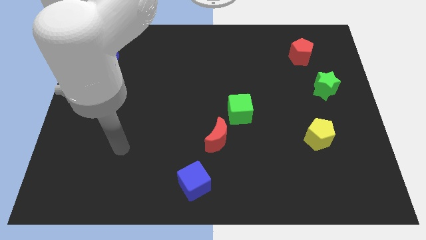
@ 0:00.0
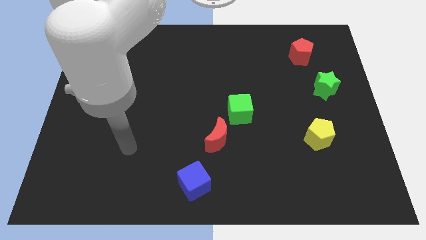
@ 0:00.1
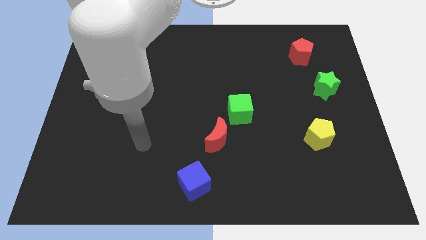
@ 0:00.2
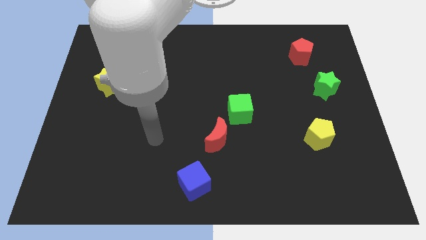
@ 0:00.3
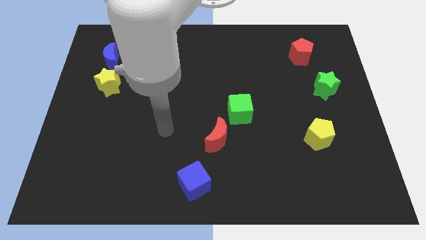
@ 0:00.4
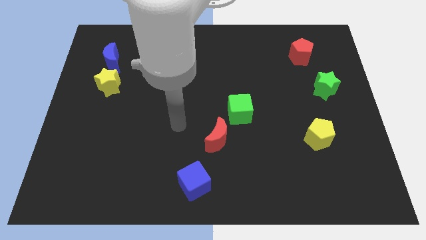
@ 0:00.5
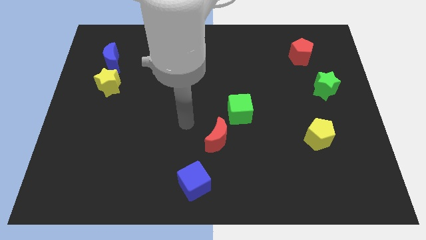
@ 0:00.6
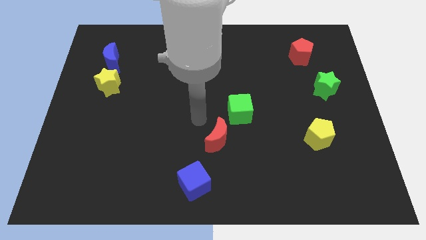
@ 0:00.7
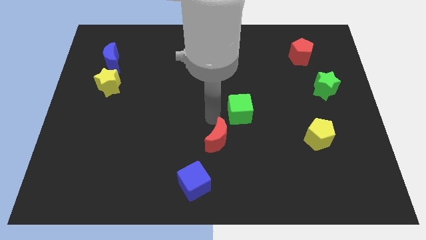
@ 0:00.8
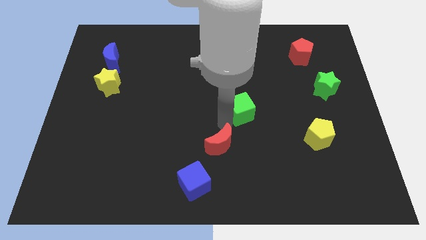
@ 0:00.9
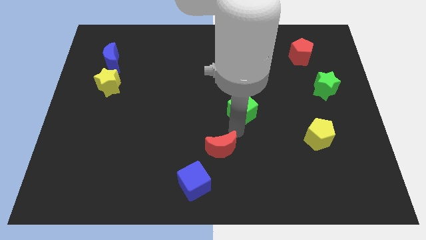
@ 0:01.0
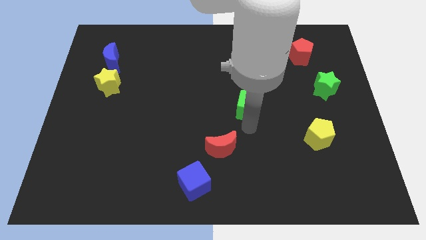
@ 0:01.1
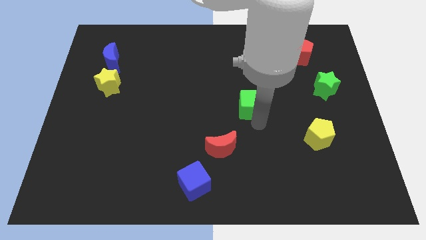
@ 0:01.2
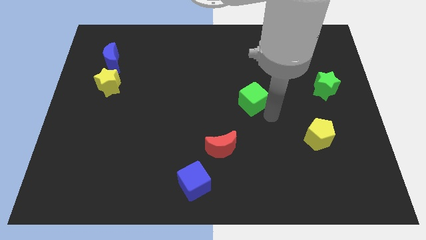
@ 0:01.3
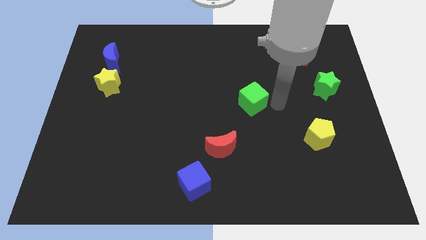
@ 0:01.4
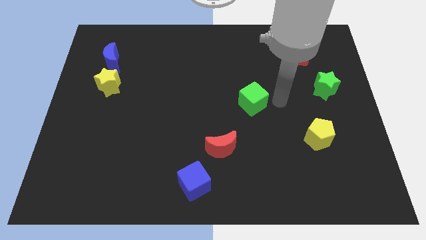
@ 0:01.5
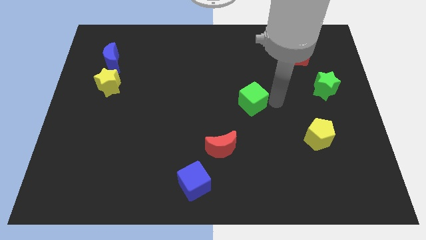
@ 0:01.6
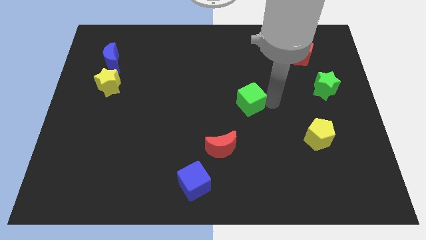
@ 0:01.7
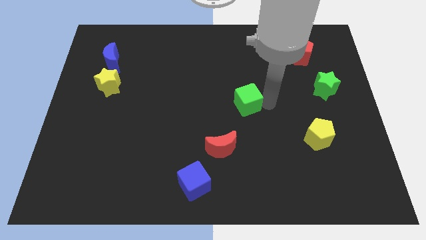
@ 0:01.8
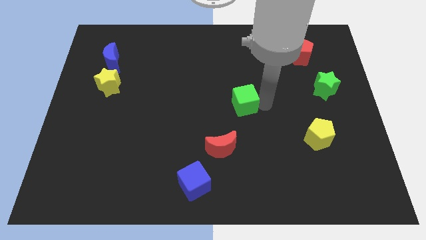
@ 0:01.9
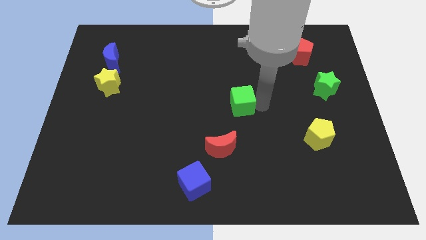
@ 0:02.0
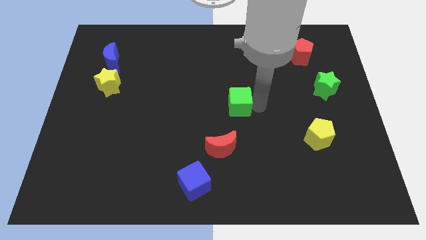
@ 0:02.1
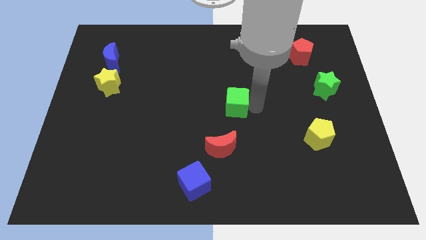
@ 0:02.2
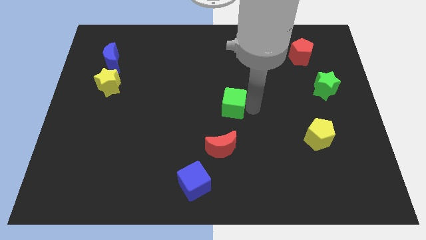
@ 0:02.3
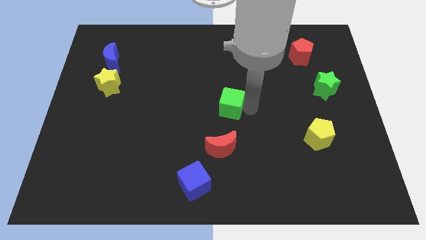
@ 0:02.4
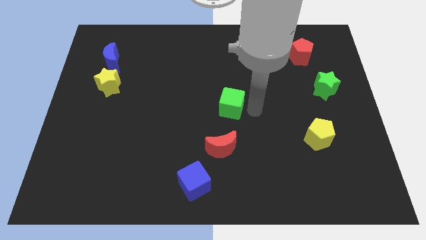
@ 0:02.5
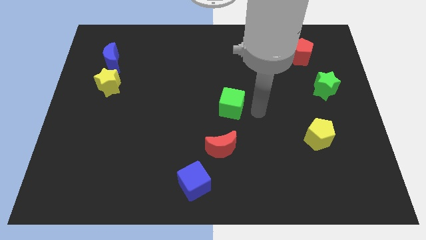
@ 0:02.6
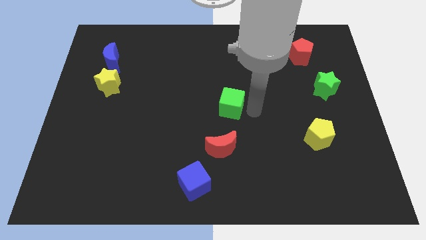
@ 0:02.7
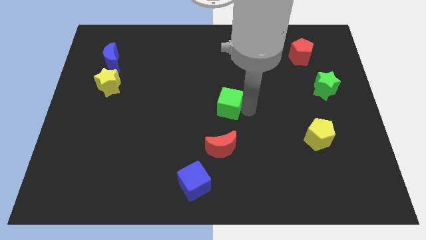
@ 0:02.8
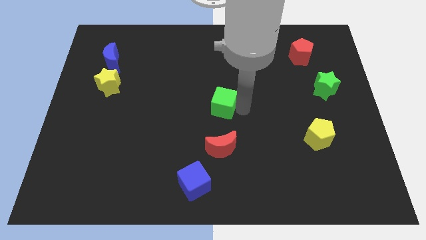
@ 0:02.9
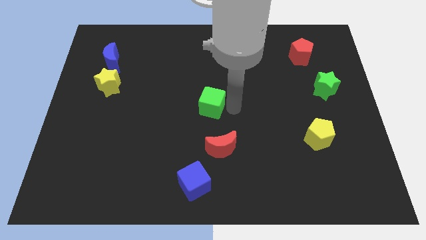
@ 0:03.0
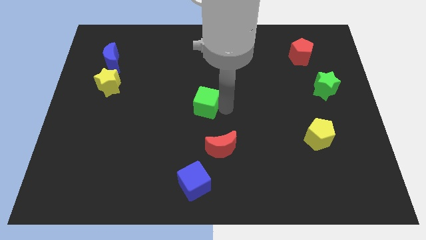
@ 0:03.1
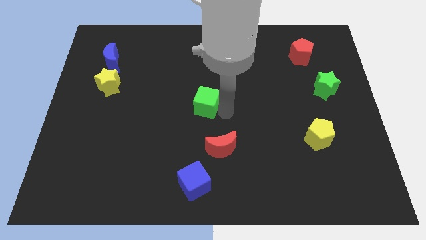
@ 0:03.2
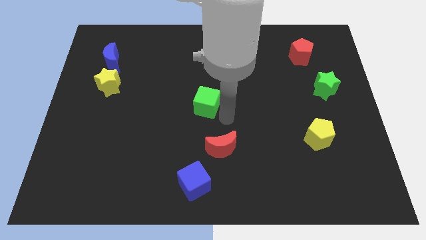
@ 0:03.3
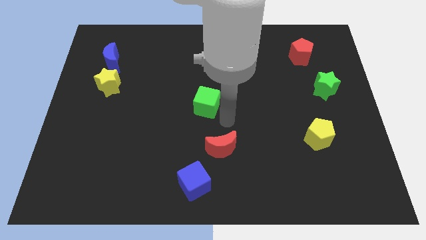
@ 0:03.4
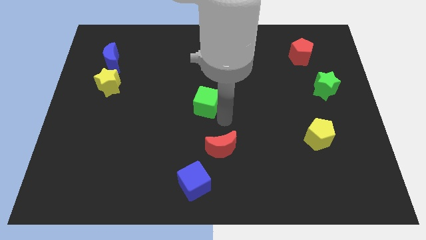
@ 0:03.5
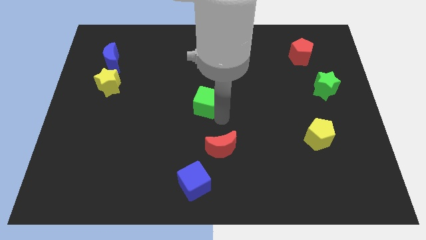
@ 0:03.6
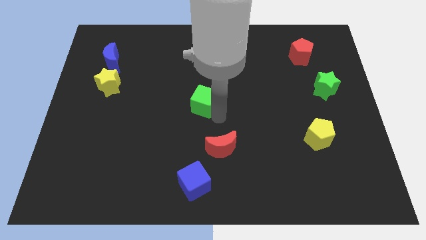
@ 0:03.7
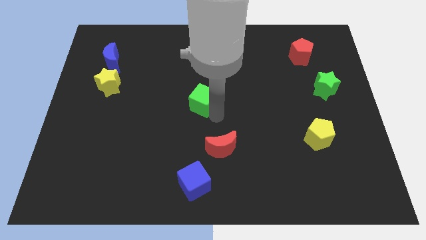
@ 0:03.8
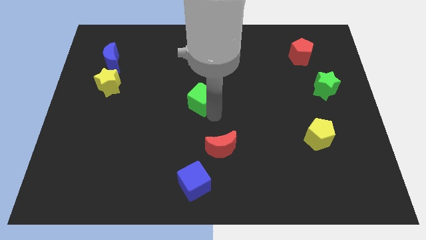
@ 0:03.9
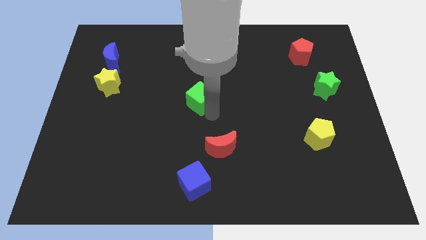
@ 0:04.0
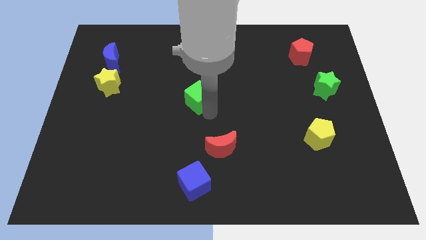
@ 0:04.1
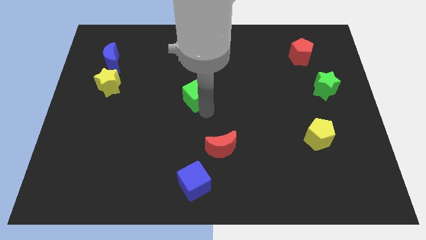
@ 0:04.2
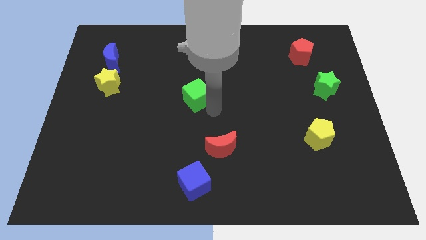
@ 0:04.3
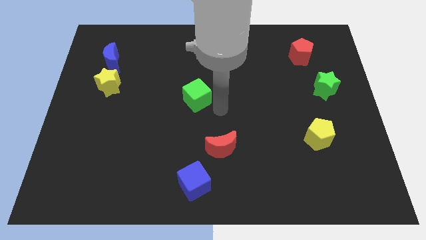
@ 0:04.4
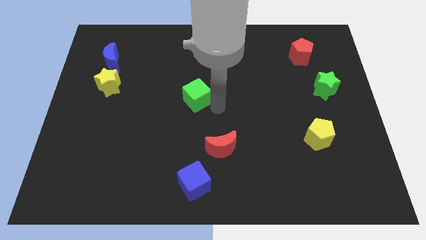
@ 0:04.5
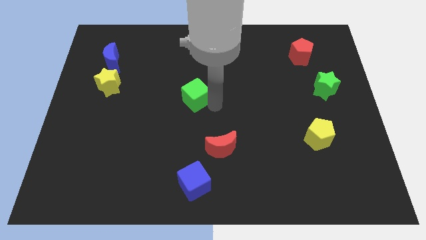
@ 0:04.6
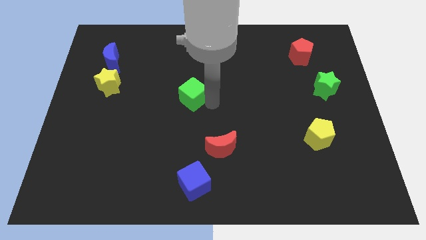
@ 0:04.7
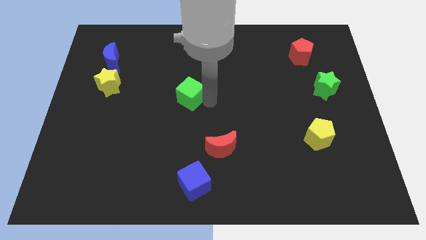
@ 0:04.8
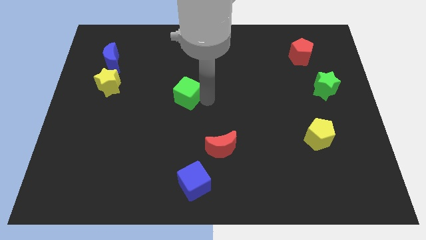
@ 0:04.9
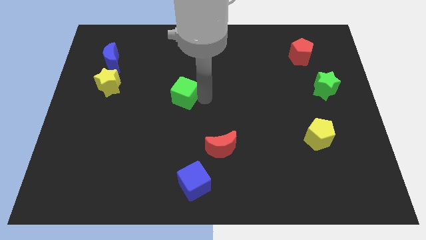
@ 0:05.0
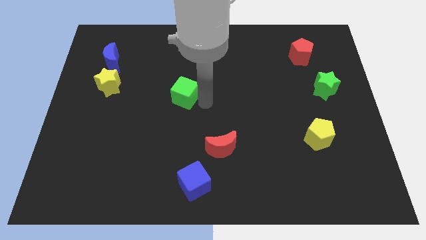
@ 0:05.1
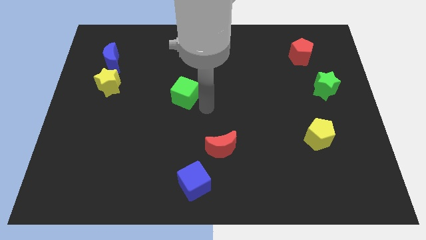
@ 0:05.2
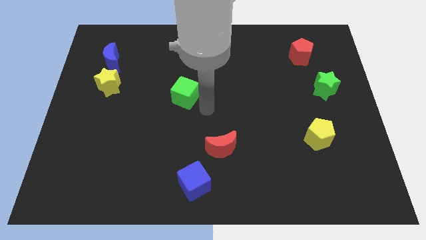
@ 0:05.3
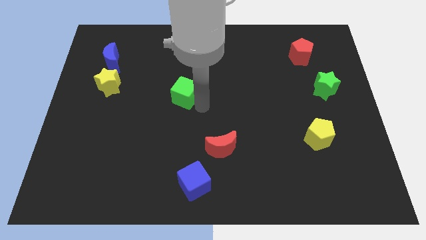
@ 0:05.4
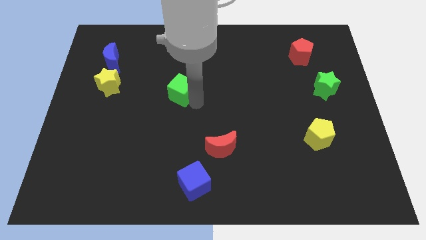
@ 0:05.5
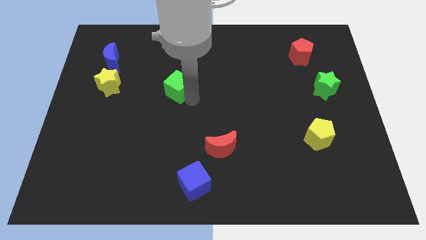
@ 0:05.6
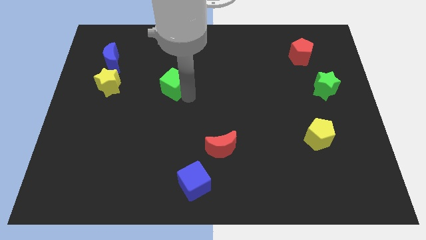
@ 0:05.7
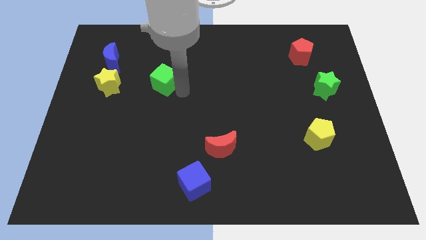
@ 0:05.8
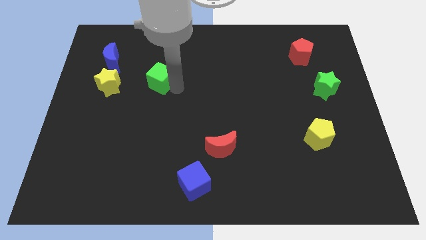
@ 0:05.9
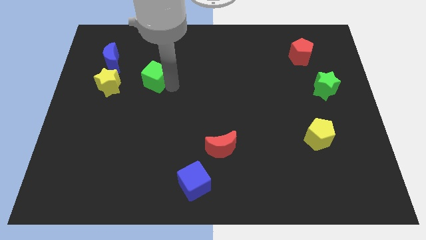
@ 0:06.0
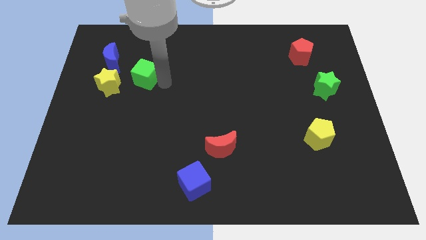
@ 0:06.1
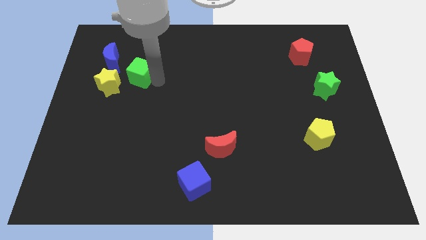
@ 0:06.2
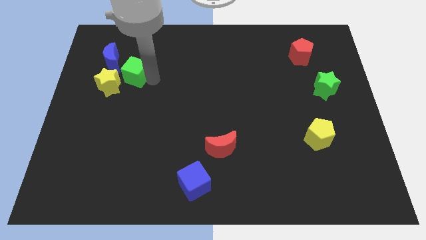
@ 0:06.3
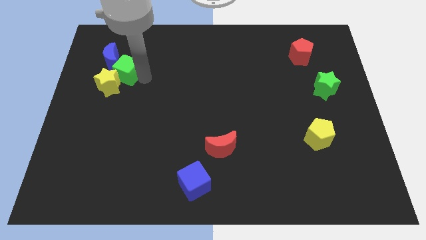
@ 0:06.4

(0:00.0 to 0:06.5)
put the green cube next to the blue moon

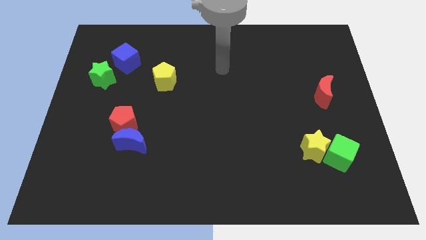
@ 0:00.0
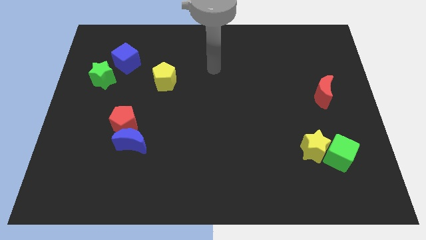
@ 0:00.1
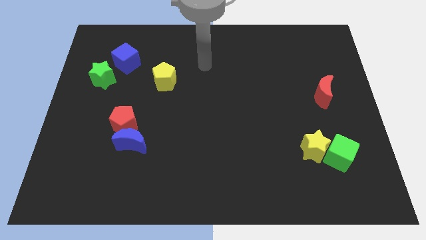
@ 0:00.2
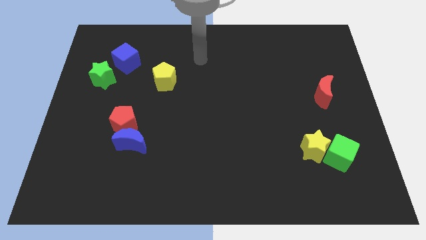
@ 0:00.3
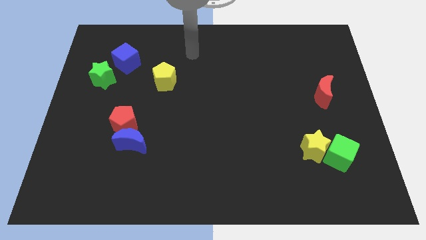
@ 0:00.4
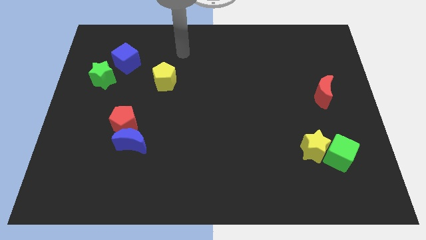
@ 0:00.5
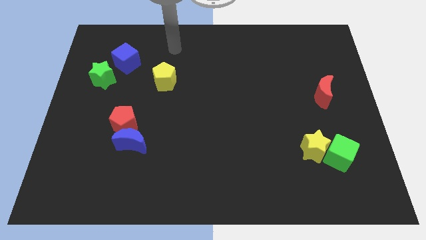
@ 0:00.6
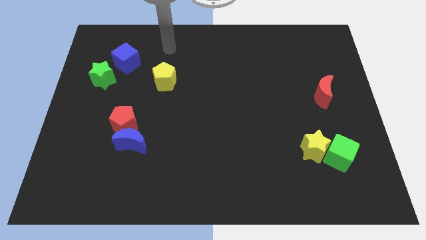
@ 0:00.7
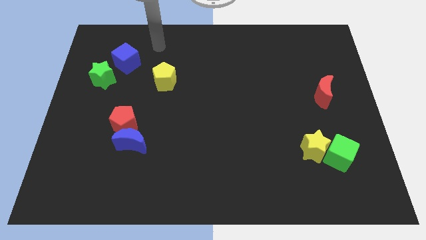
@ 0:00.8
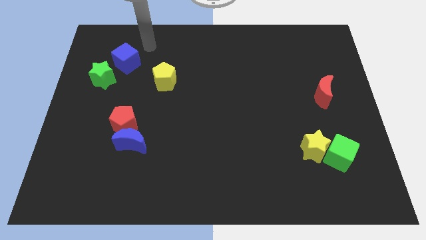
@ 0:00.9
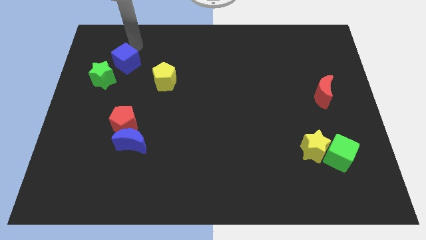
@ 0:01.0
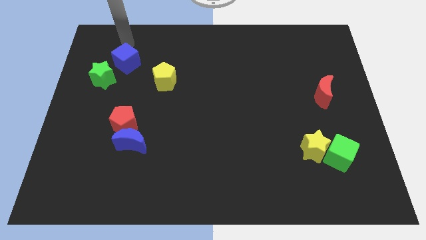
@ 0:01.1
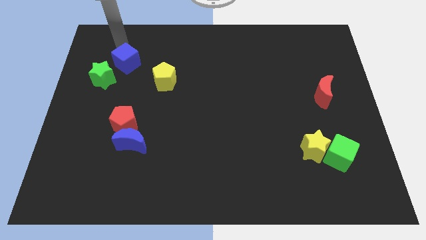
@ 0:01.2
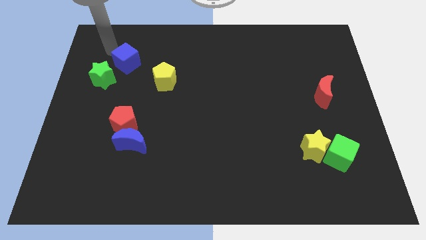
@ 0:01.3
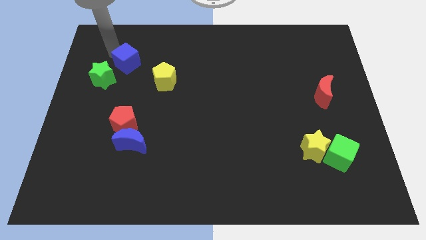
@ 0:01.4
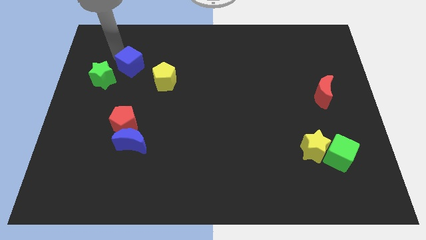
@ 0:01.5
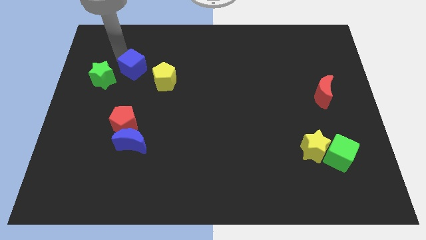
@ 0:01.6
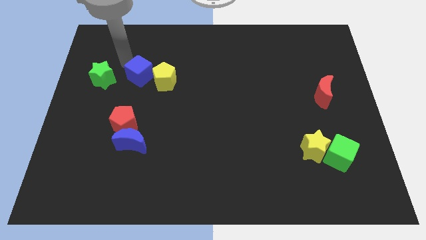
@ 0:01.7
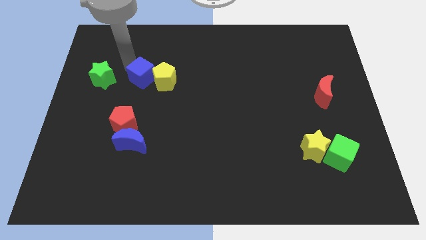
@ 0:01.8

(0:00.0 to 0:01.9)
push the blue cube next to the yellow pentagon
